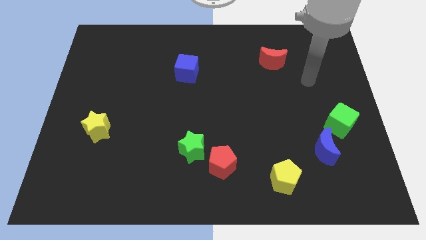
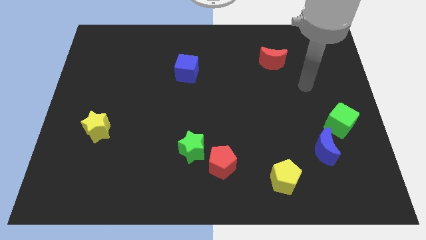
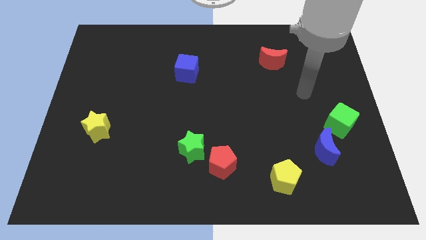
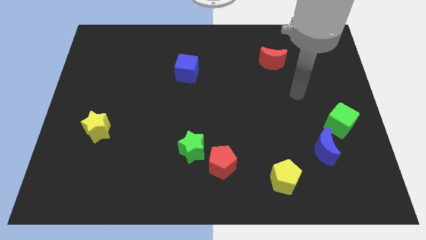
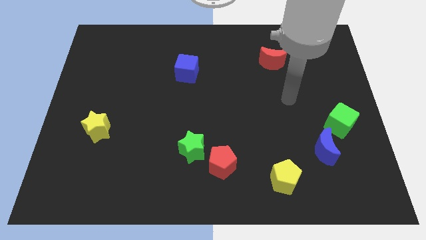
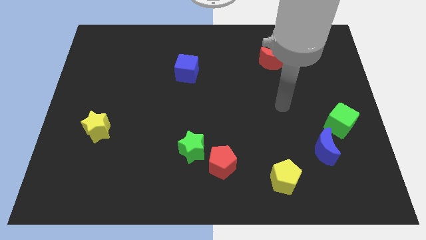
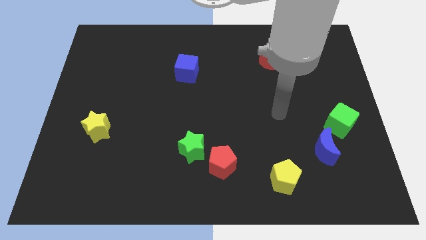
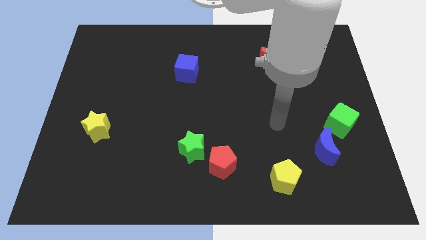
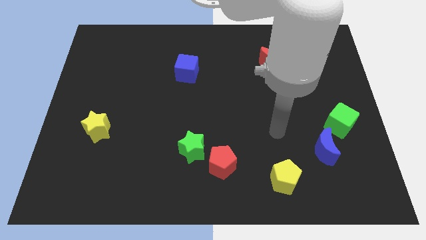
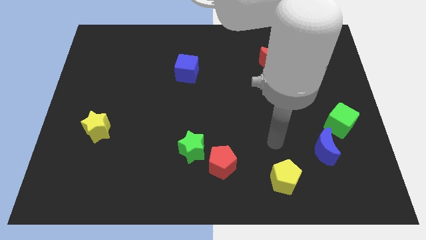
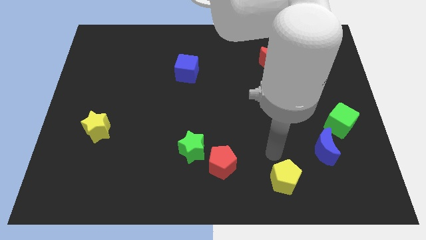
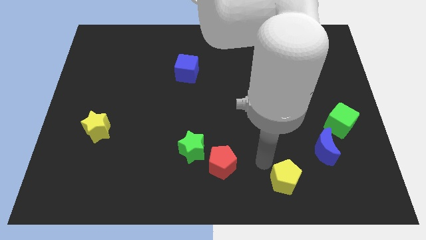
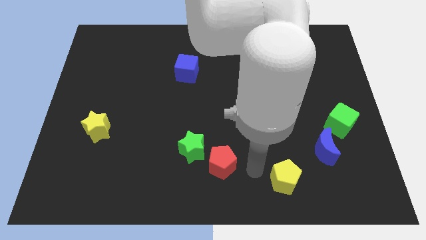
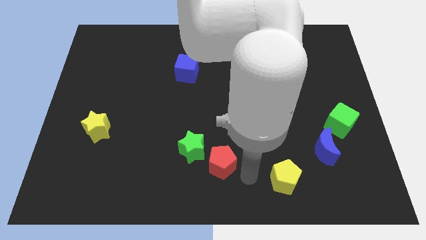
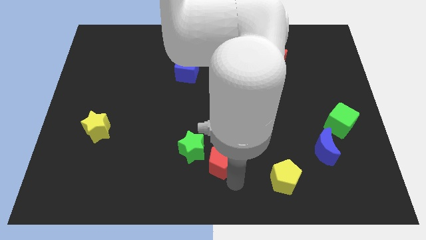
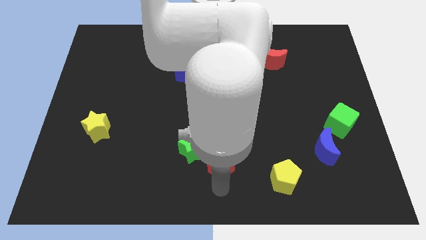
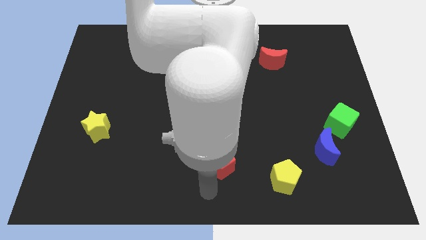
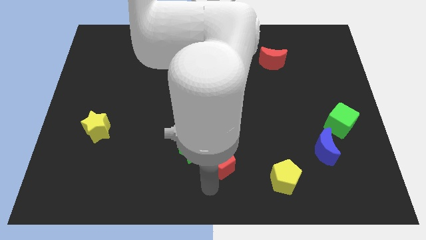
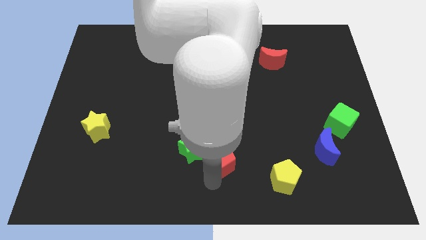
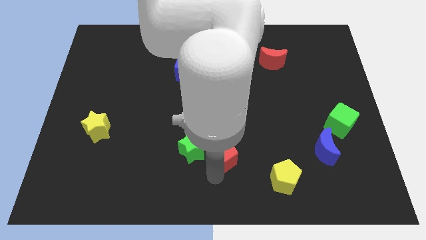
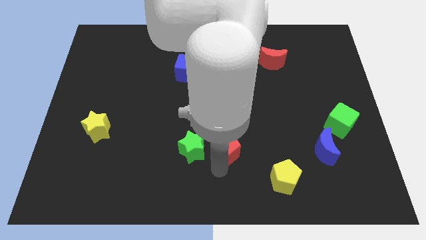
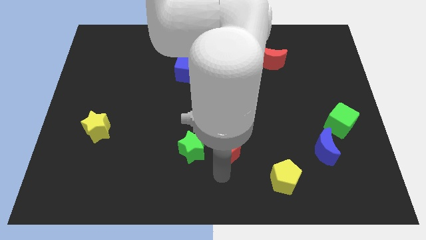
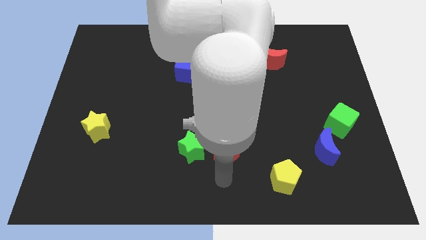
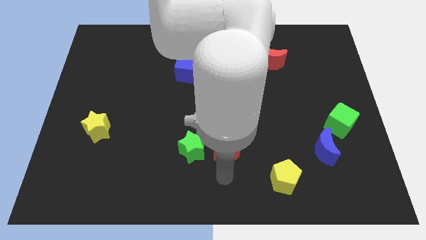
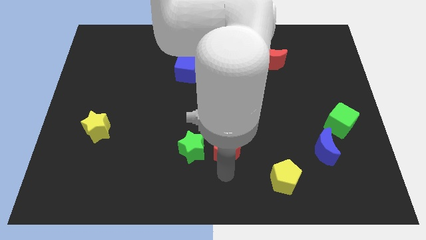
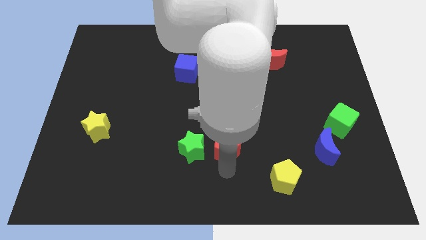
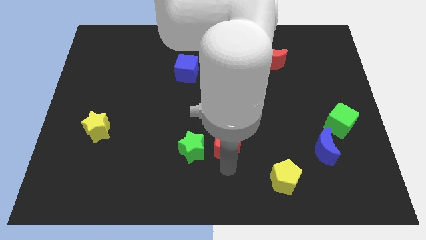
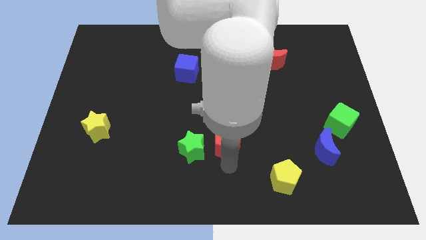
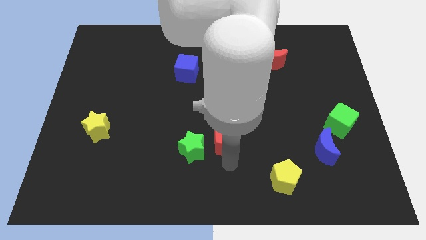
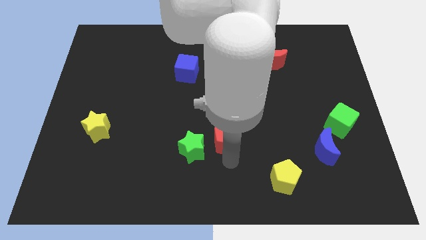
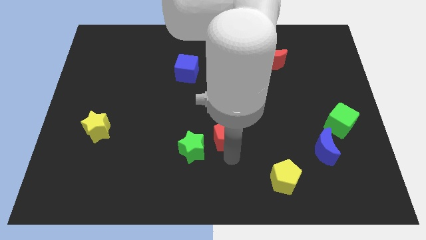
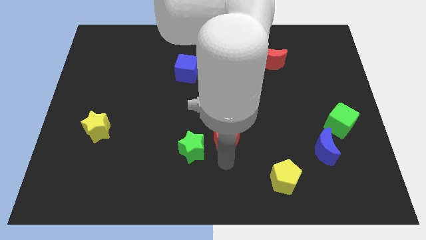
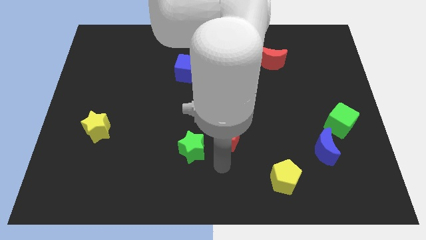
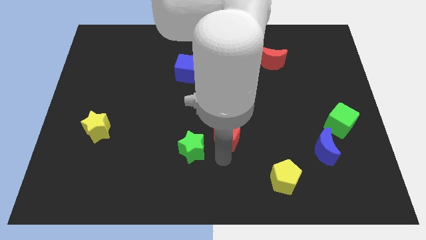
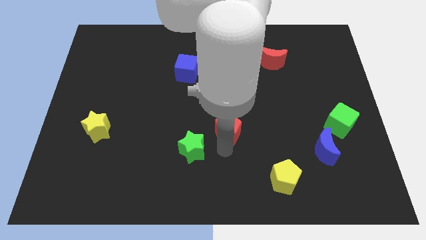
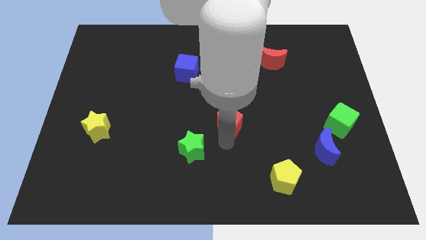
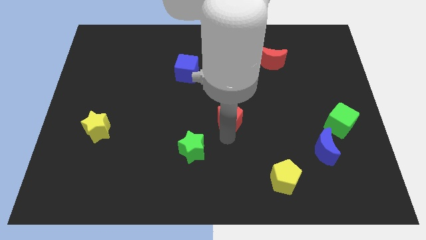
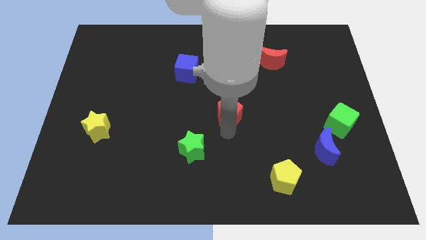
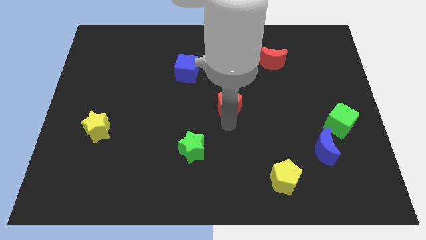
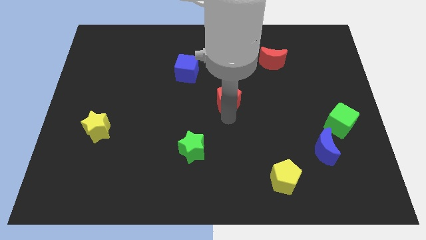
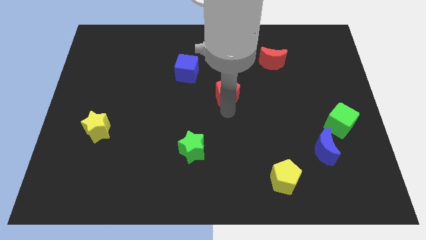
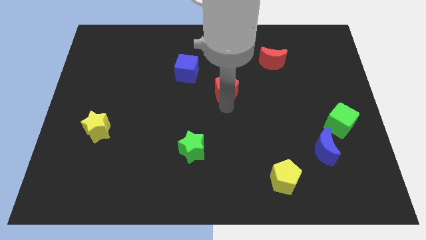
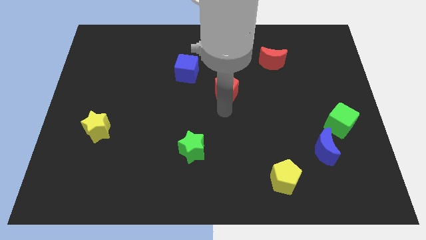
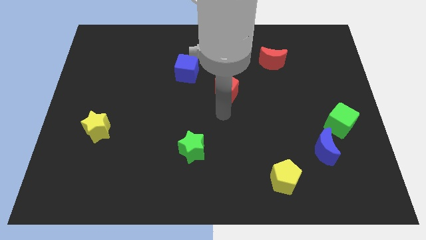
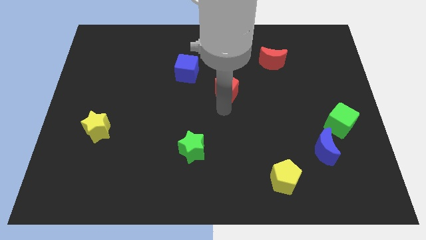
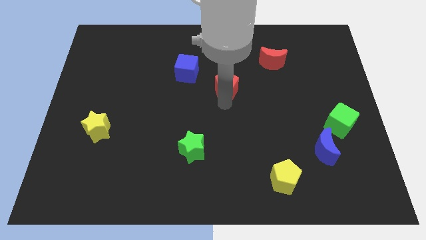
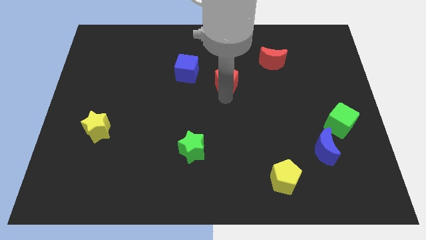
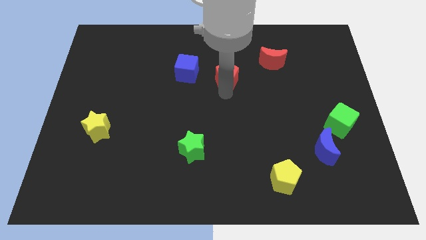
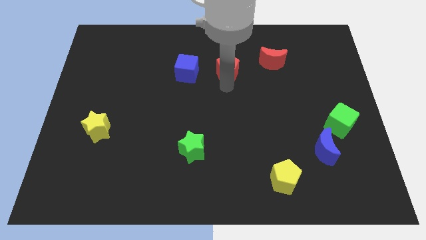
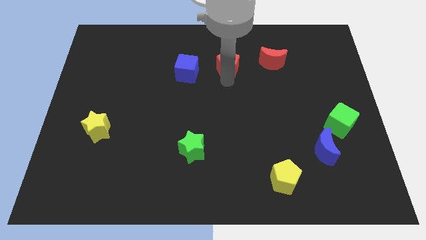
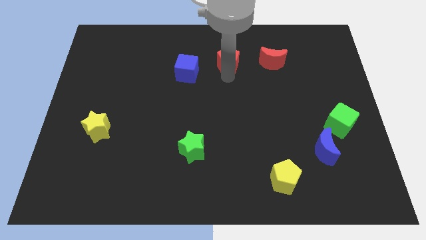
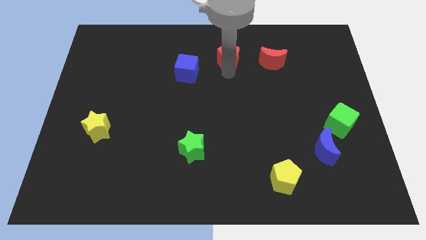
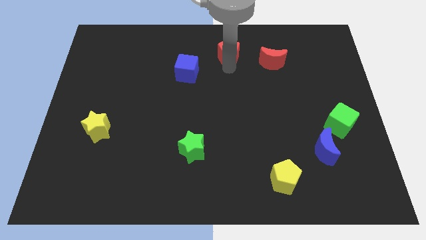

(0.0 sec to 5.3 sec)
slide the red pentagon to the top

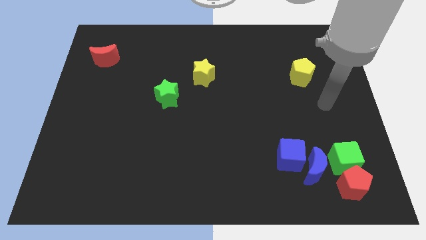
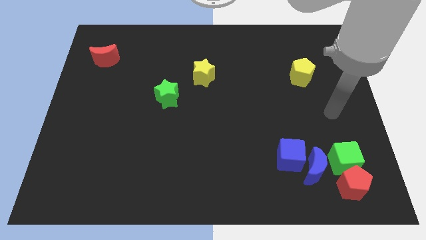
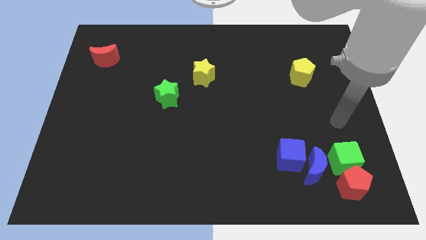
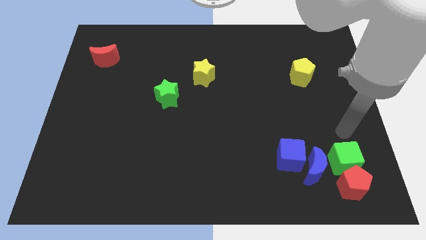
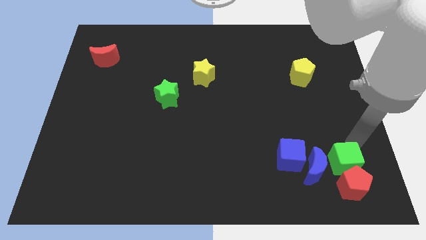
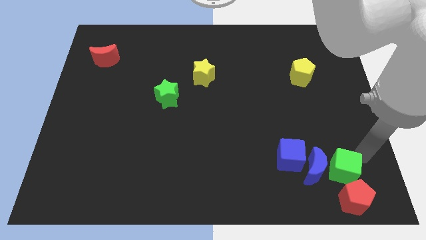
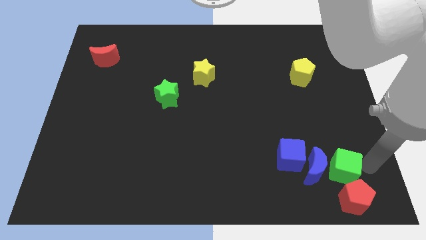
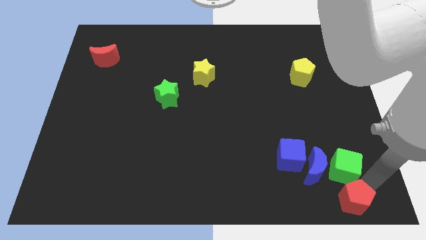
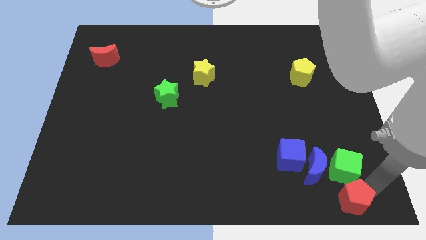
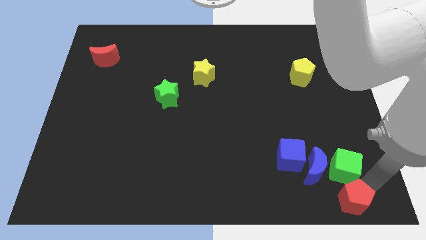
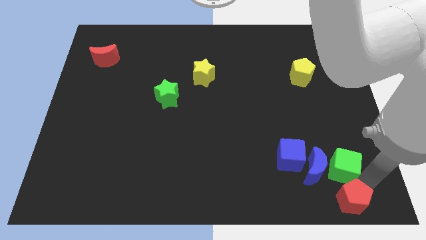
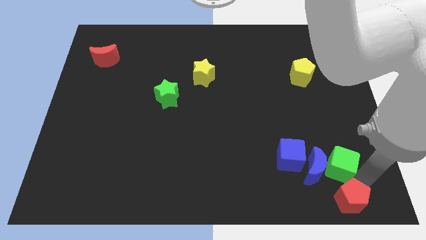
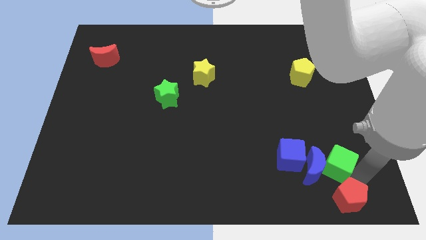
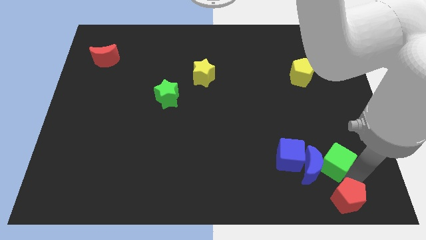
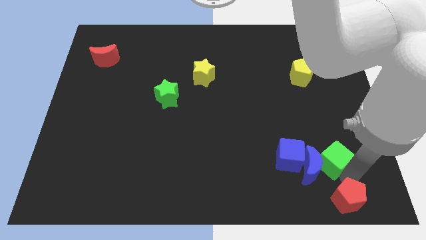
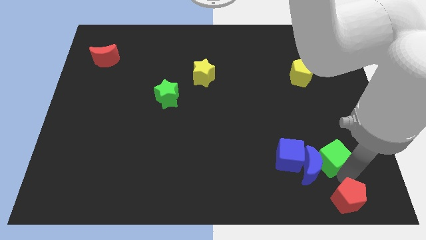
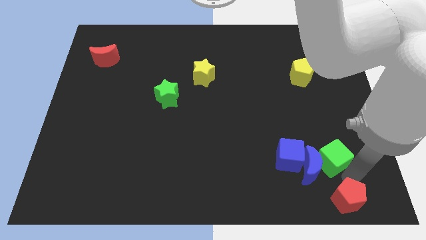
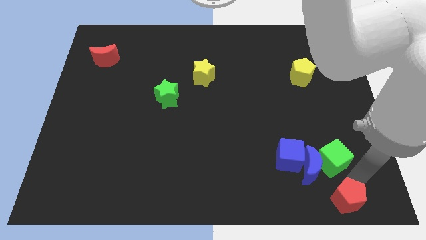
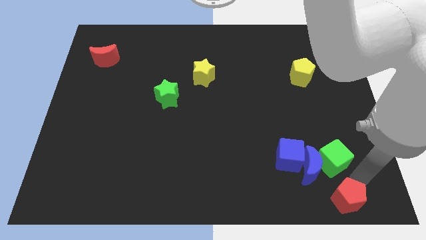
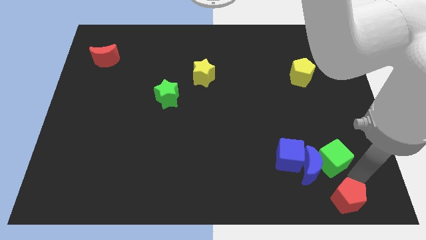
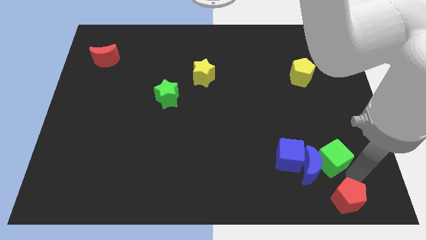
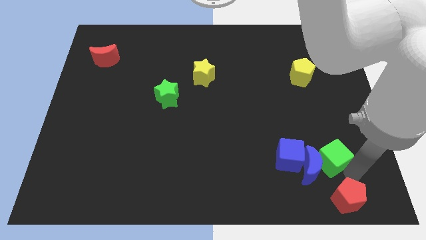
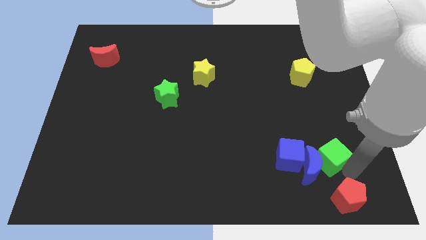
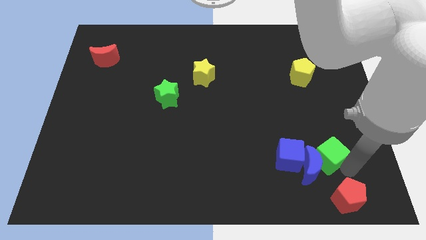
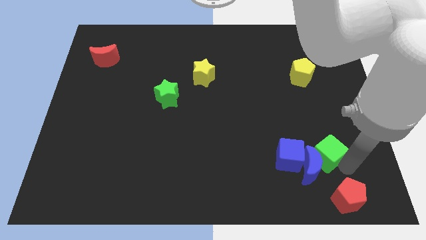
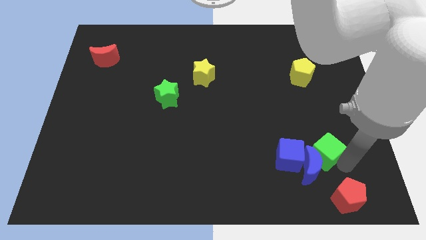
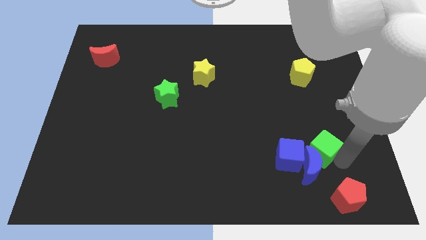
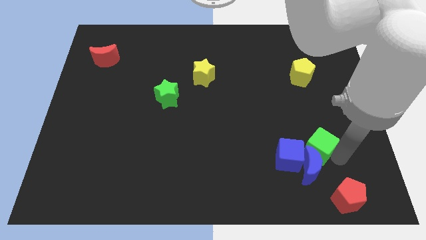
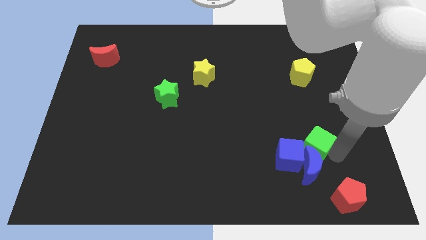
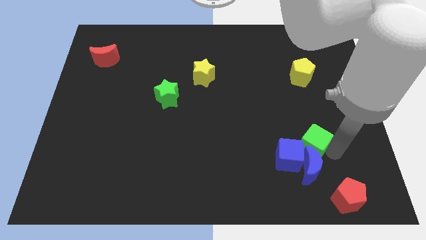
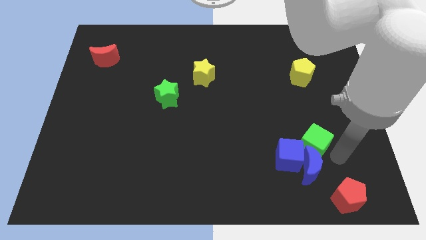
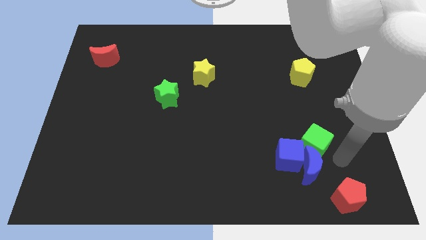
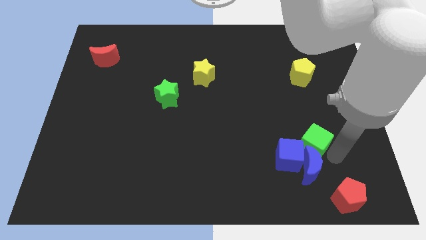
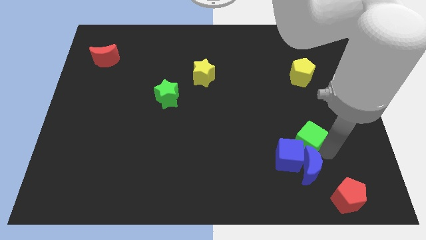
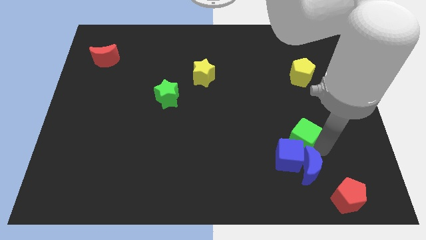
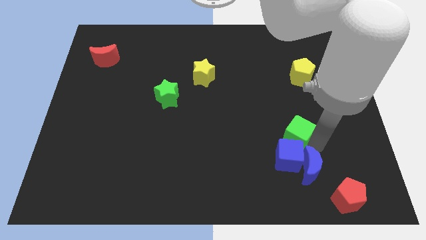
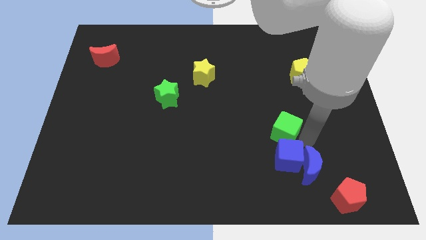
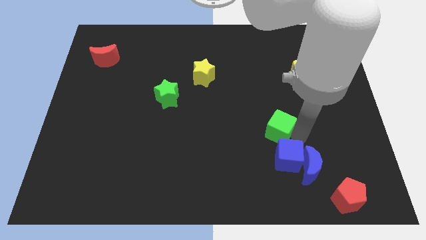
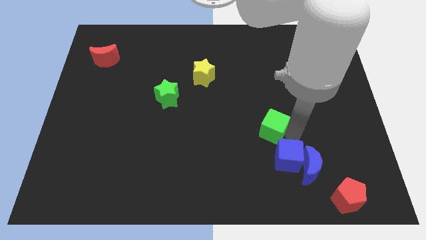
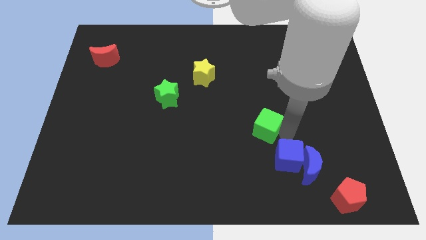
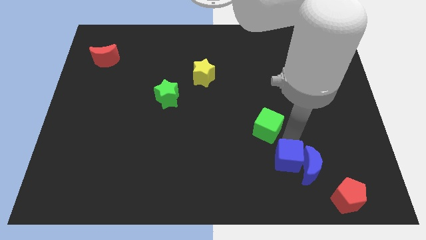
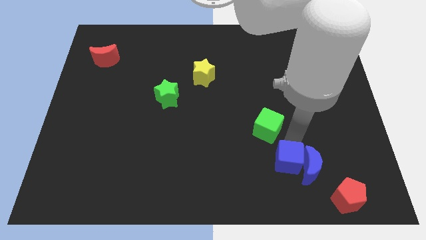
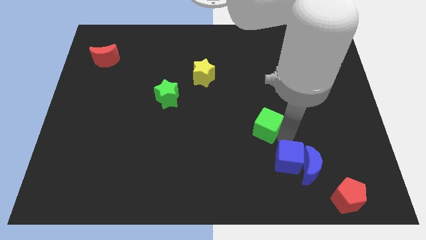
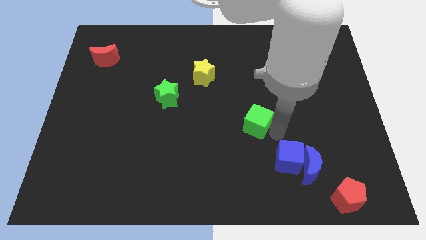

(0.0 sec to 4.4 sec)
put the green cube to the middle of the board
